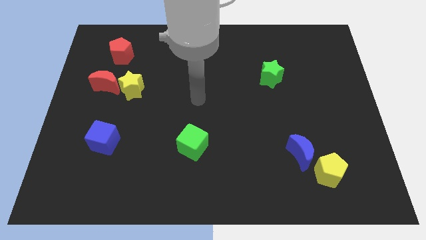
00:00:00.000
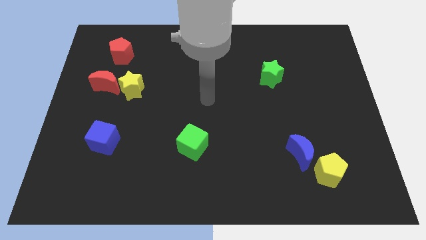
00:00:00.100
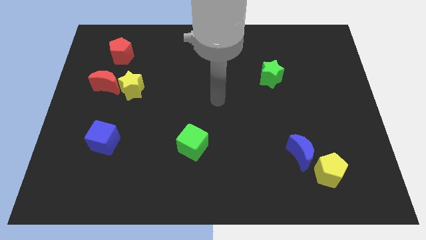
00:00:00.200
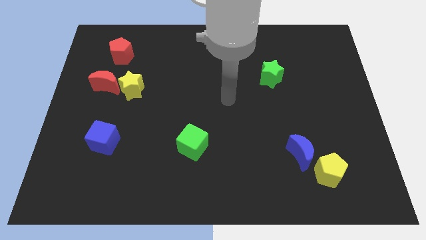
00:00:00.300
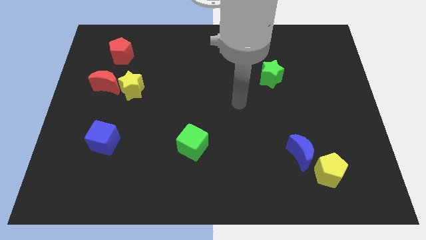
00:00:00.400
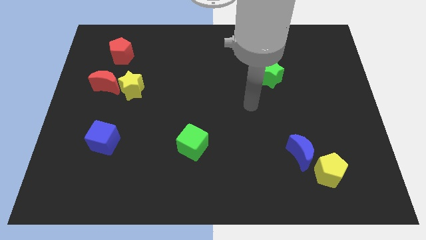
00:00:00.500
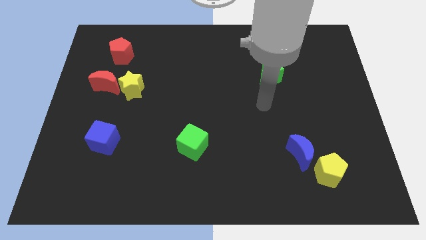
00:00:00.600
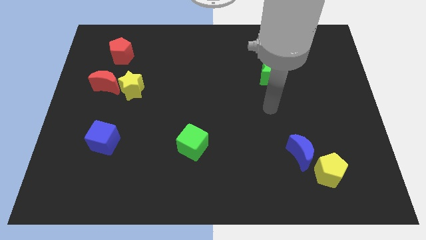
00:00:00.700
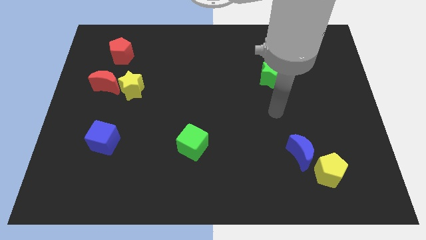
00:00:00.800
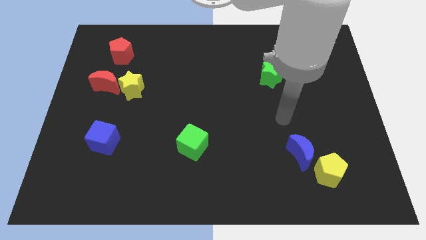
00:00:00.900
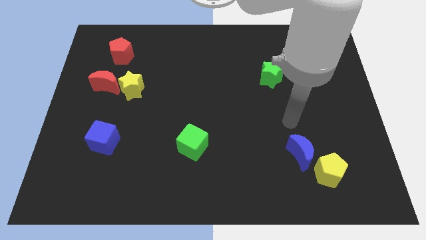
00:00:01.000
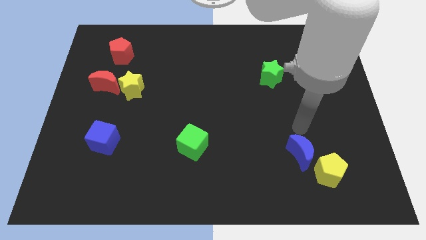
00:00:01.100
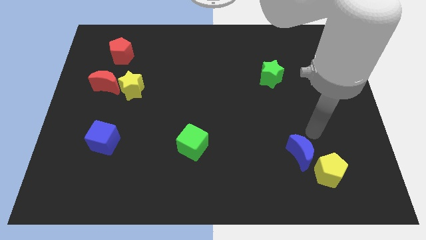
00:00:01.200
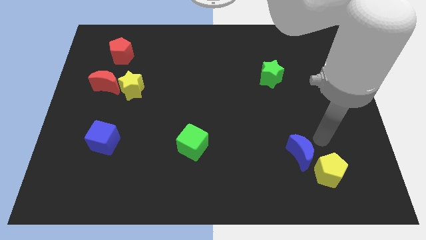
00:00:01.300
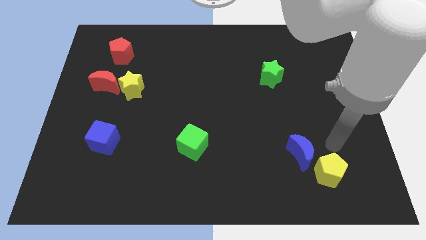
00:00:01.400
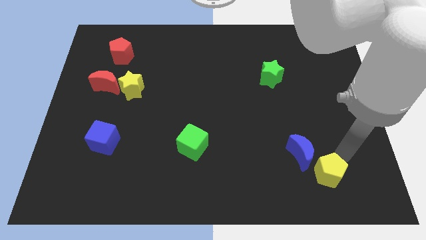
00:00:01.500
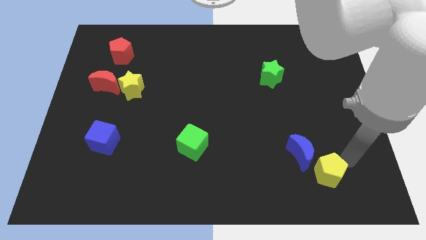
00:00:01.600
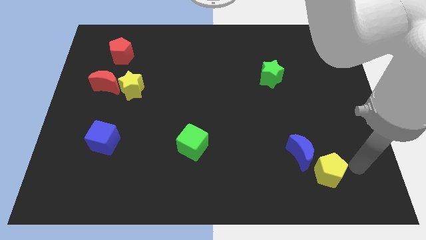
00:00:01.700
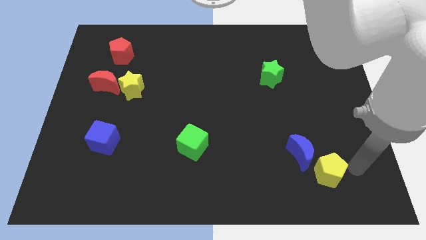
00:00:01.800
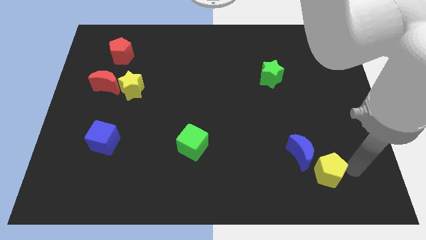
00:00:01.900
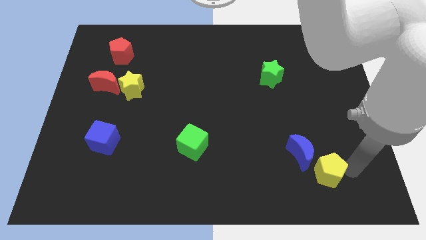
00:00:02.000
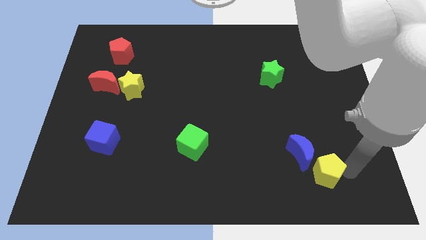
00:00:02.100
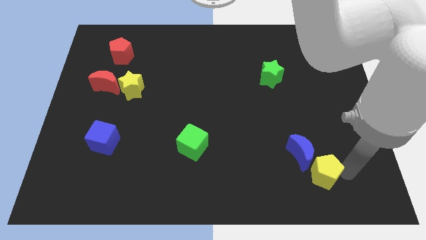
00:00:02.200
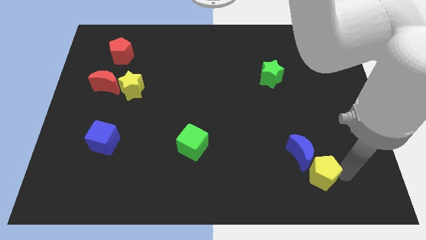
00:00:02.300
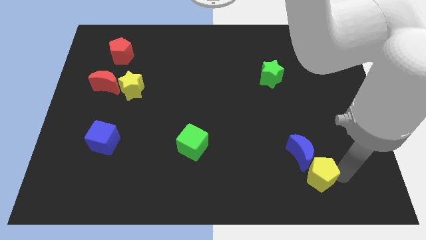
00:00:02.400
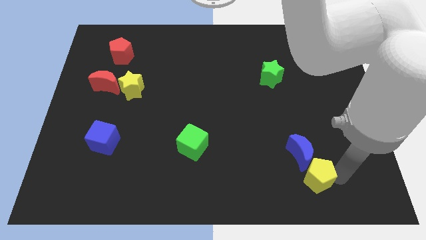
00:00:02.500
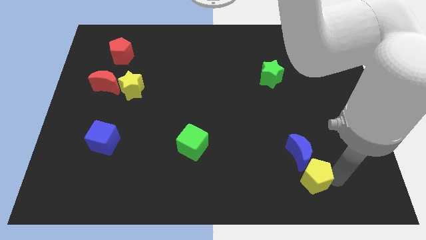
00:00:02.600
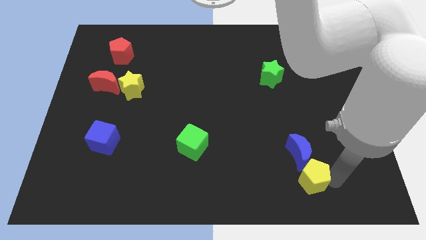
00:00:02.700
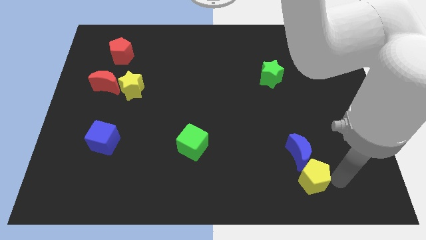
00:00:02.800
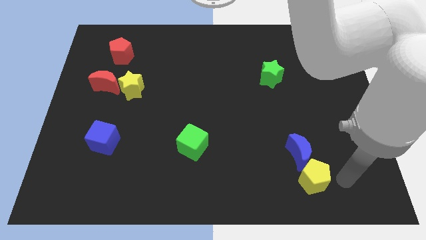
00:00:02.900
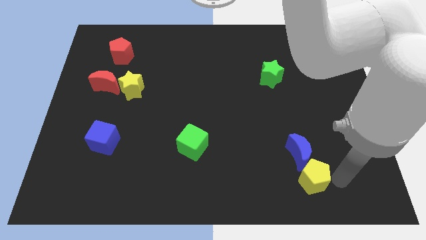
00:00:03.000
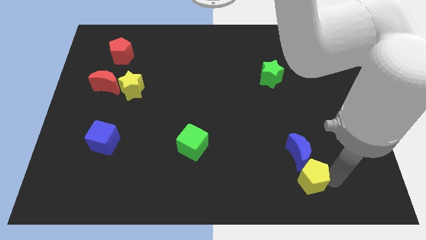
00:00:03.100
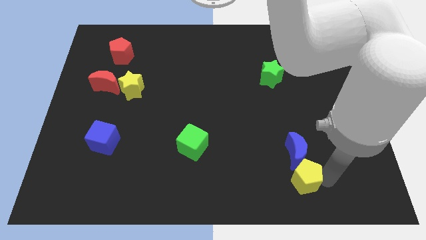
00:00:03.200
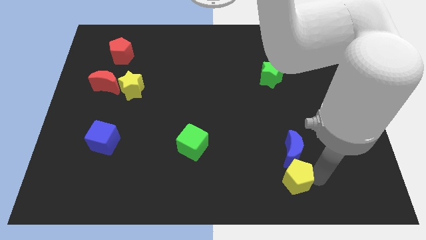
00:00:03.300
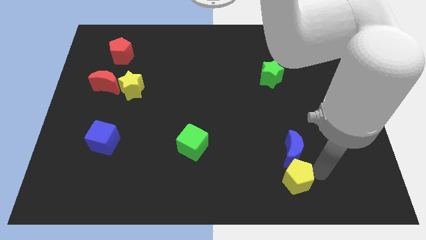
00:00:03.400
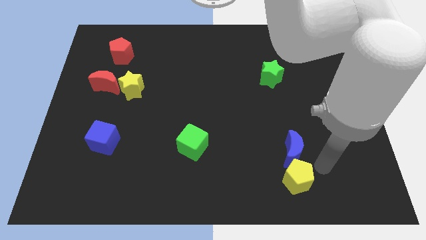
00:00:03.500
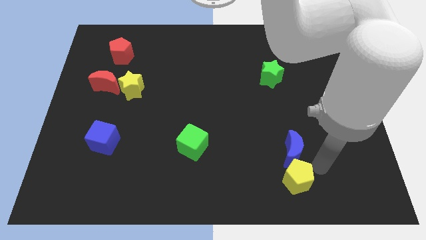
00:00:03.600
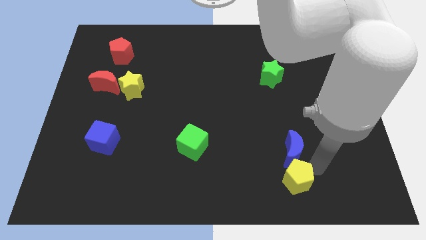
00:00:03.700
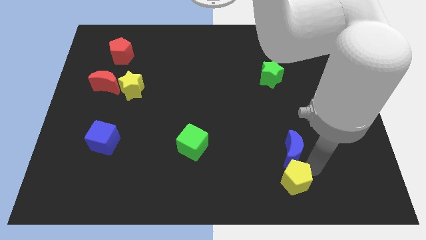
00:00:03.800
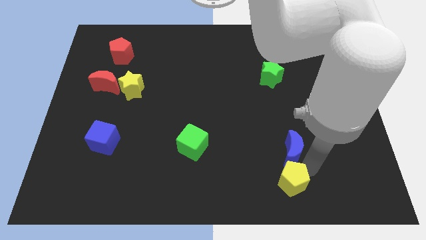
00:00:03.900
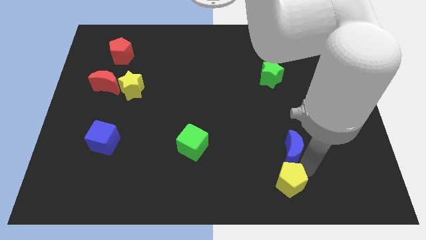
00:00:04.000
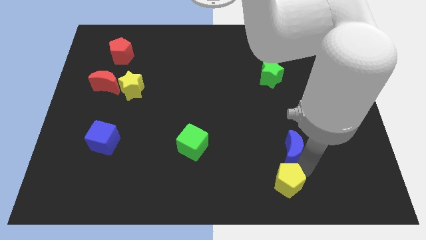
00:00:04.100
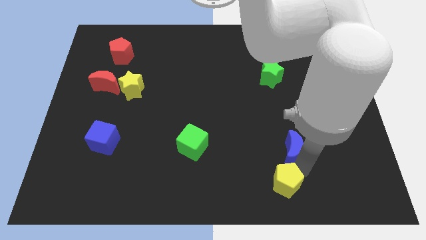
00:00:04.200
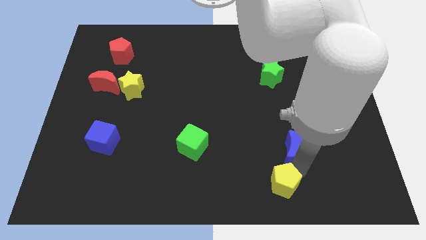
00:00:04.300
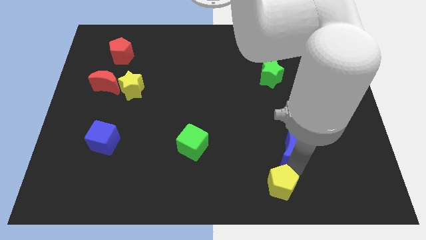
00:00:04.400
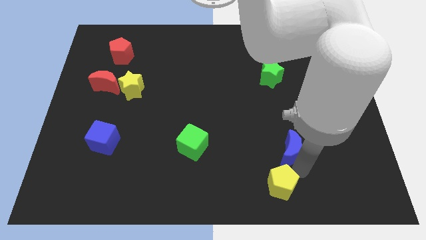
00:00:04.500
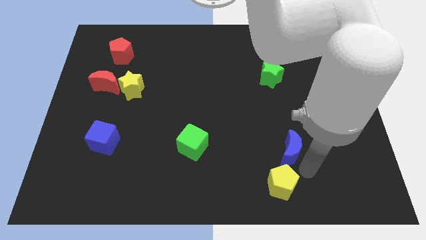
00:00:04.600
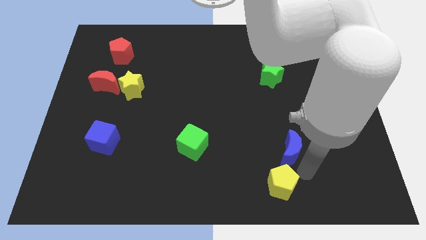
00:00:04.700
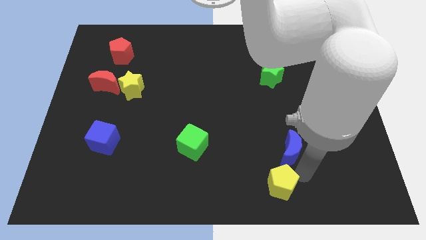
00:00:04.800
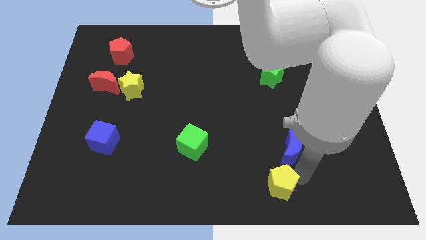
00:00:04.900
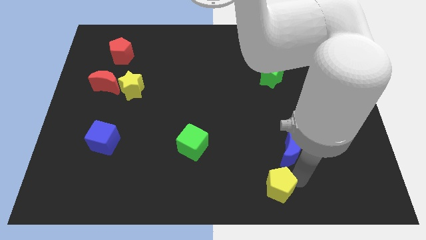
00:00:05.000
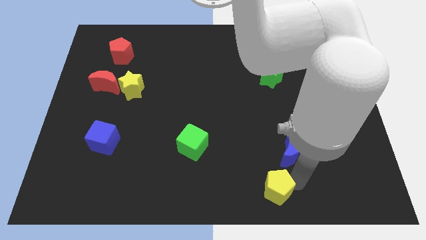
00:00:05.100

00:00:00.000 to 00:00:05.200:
push the yellow pentagon to the bottom side

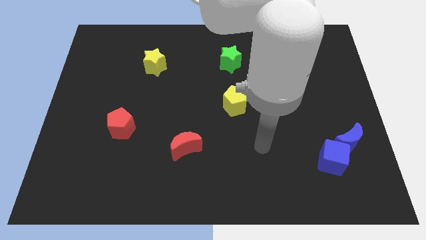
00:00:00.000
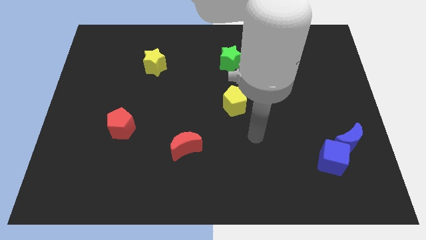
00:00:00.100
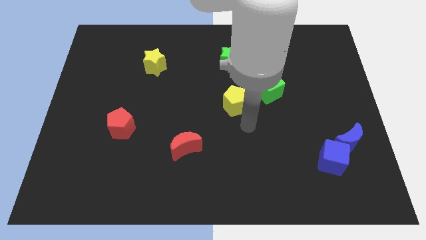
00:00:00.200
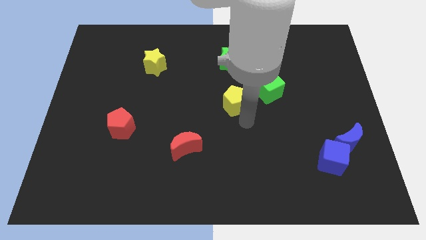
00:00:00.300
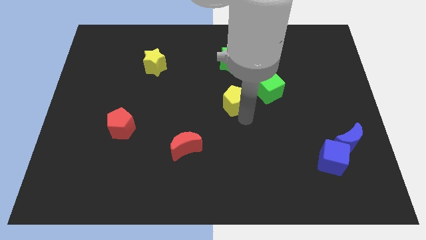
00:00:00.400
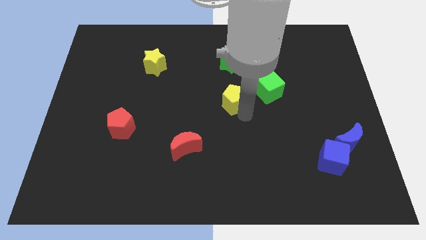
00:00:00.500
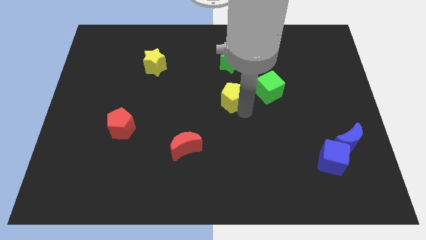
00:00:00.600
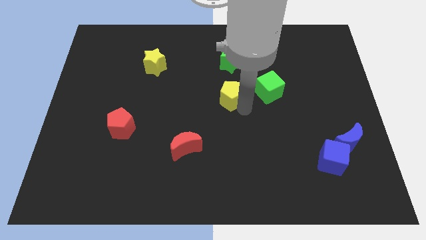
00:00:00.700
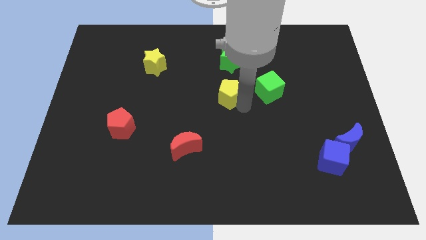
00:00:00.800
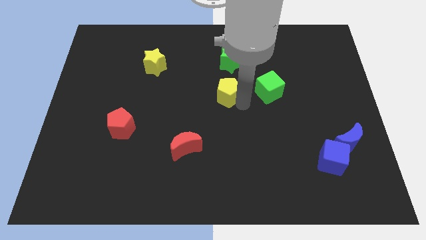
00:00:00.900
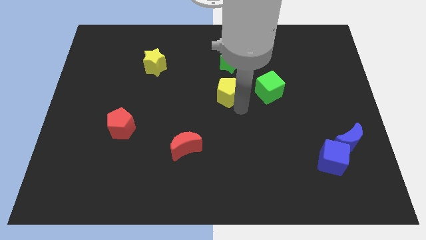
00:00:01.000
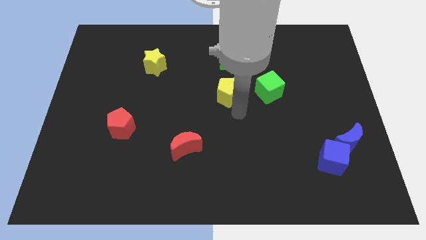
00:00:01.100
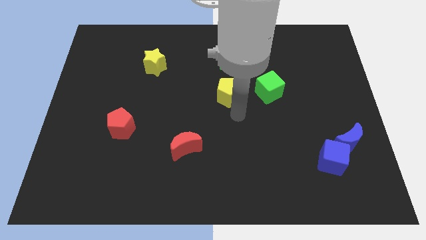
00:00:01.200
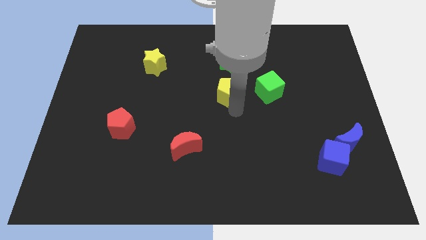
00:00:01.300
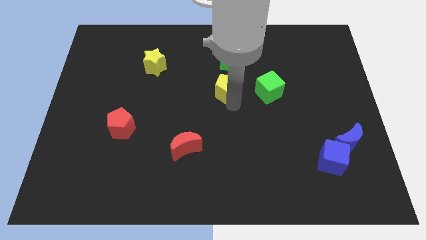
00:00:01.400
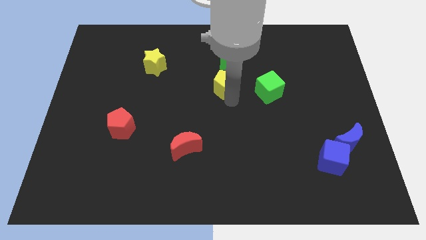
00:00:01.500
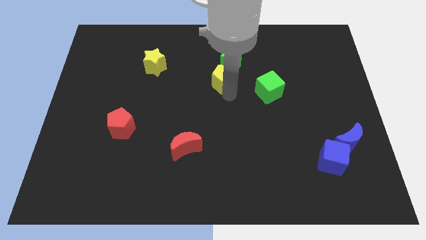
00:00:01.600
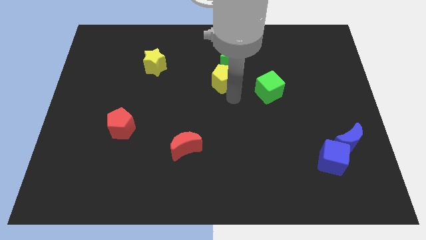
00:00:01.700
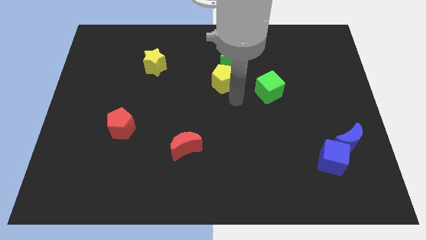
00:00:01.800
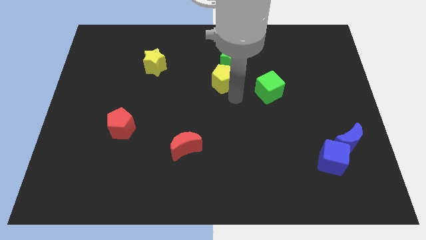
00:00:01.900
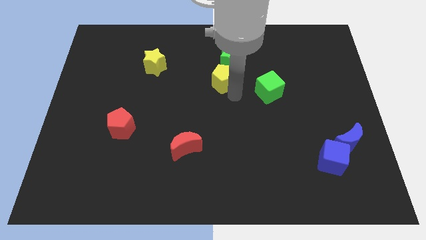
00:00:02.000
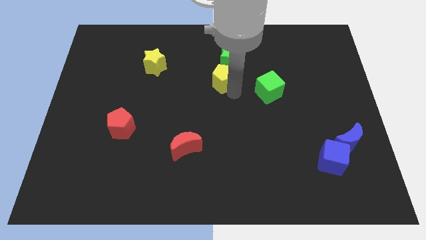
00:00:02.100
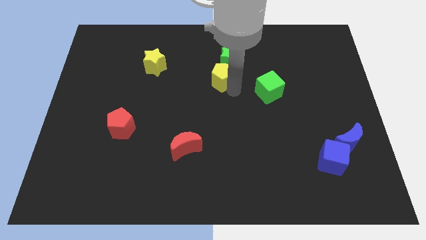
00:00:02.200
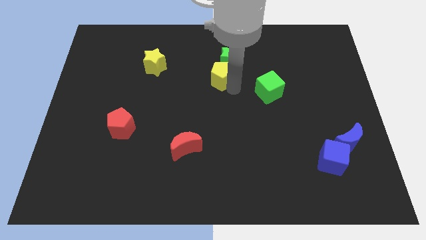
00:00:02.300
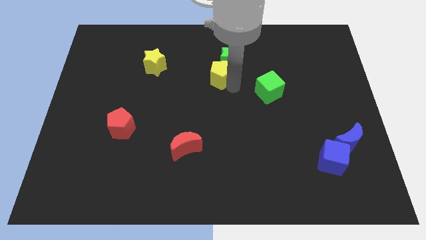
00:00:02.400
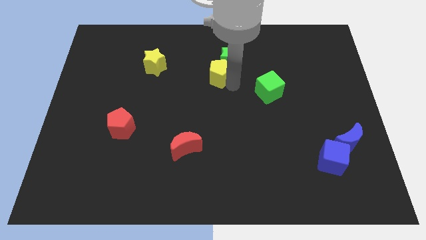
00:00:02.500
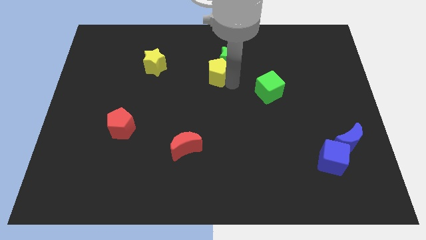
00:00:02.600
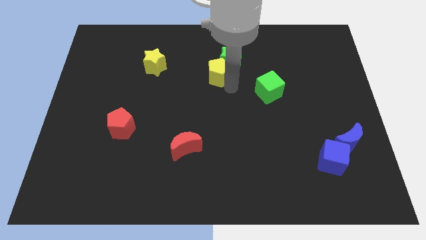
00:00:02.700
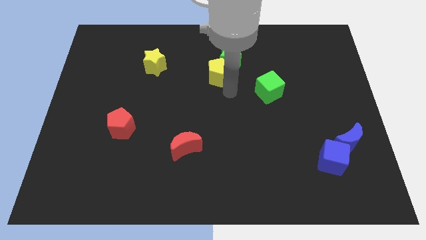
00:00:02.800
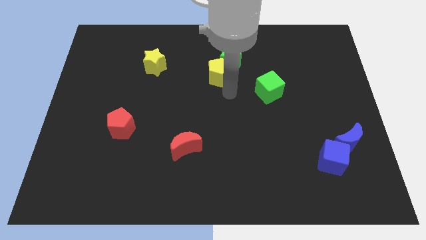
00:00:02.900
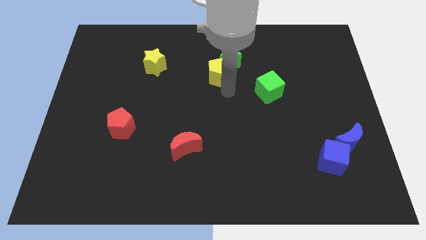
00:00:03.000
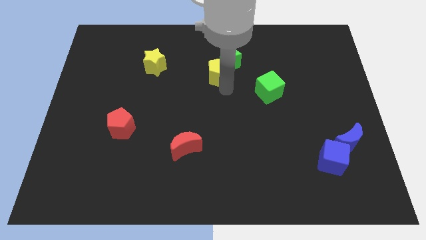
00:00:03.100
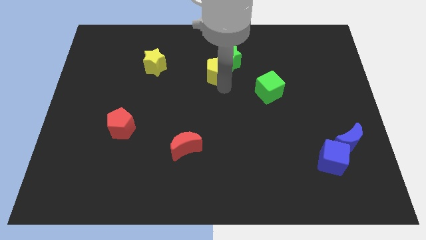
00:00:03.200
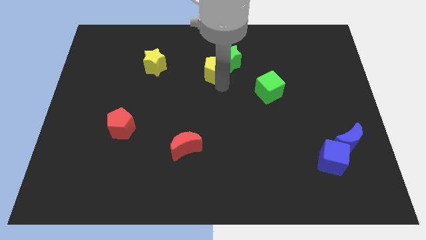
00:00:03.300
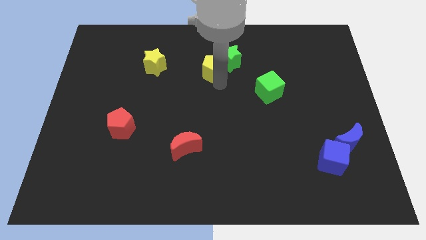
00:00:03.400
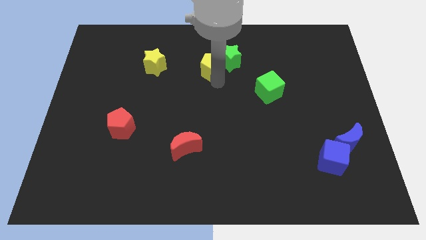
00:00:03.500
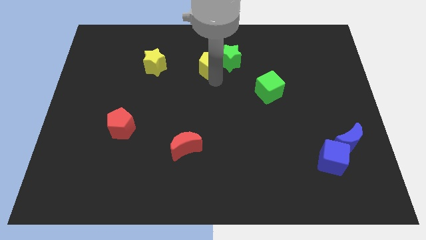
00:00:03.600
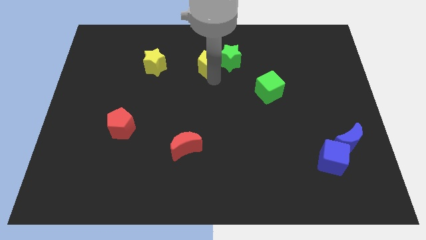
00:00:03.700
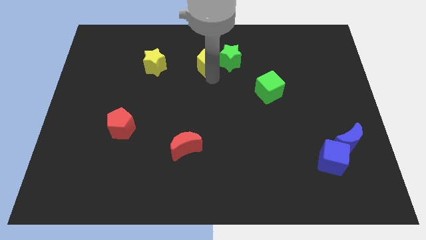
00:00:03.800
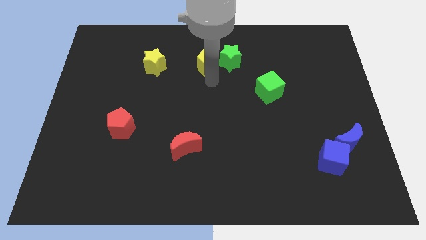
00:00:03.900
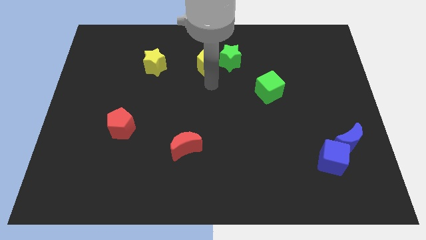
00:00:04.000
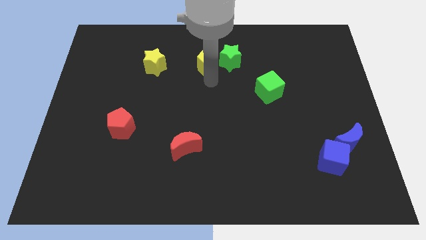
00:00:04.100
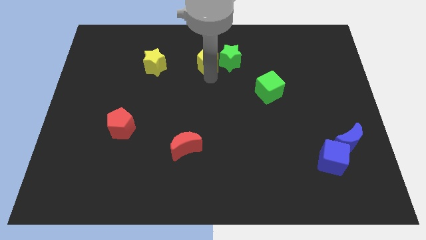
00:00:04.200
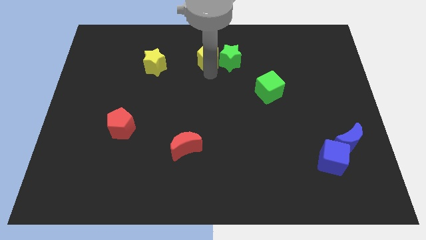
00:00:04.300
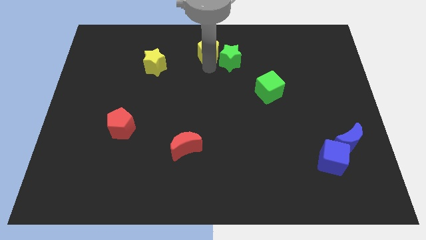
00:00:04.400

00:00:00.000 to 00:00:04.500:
put the yellow pentagon to the top
